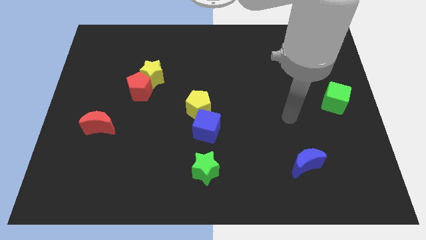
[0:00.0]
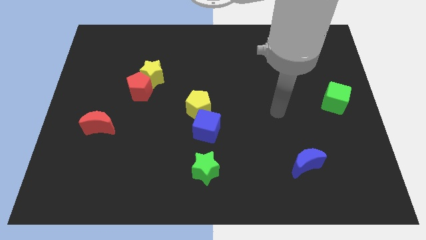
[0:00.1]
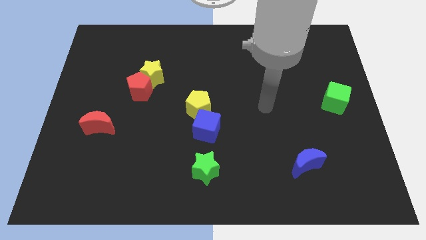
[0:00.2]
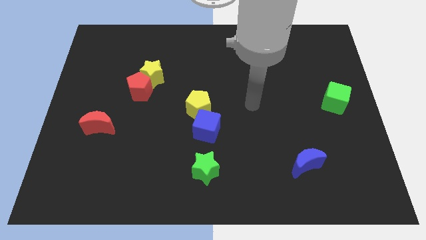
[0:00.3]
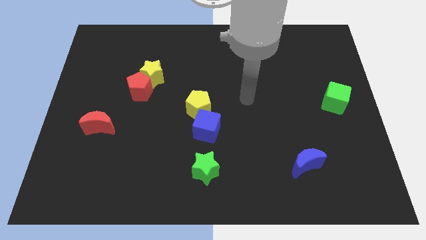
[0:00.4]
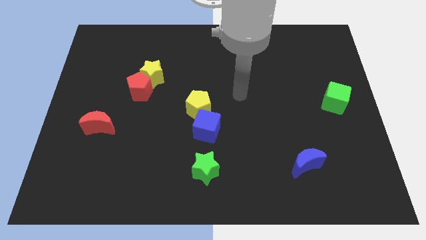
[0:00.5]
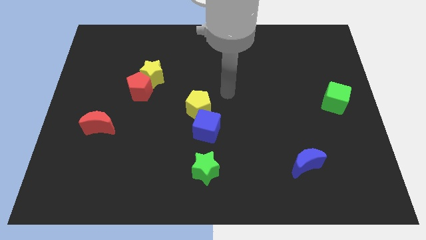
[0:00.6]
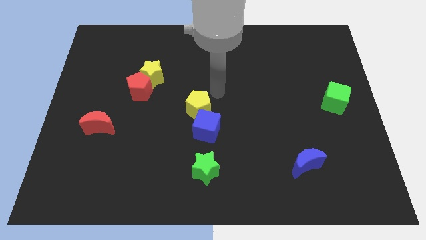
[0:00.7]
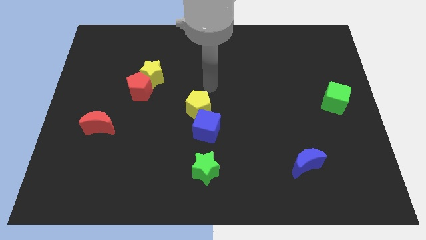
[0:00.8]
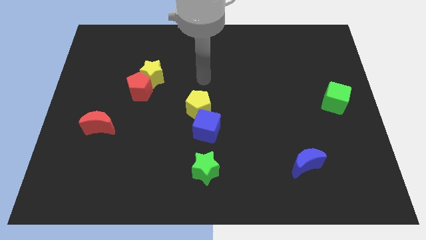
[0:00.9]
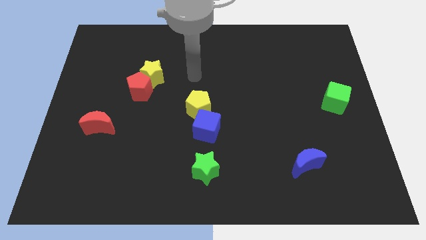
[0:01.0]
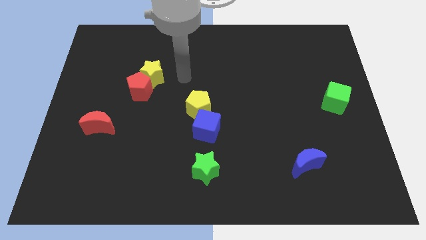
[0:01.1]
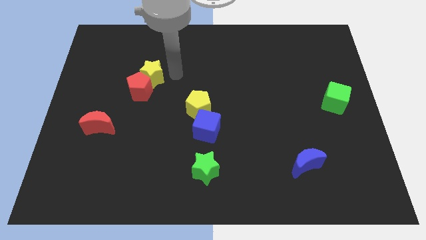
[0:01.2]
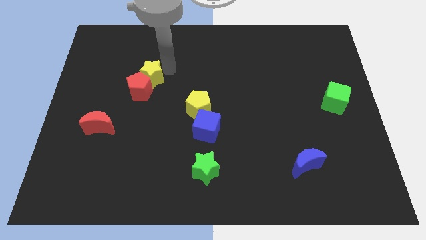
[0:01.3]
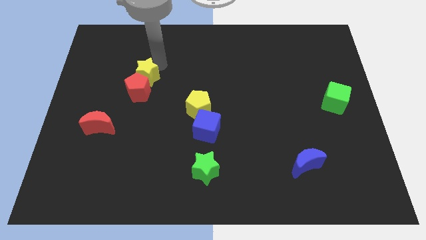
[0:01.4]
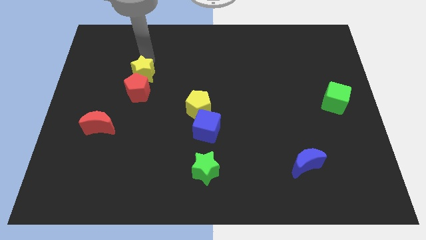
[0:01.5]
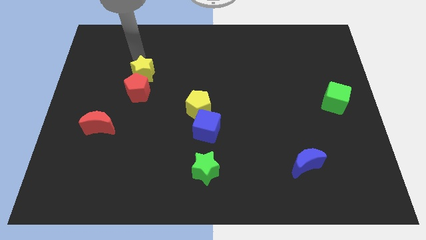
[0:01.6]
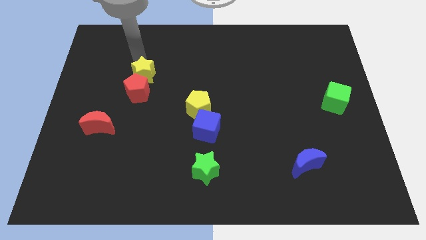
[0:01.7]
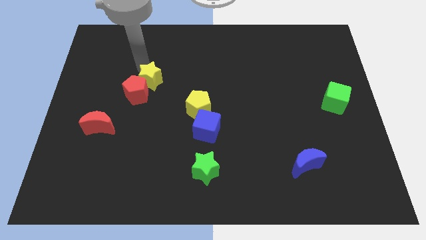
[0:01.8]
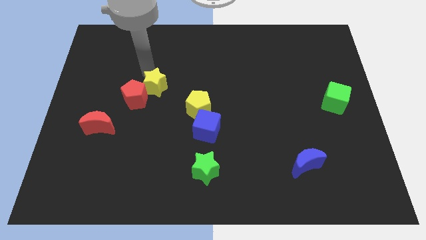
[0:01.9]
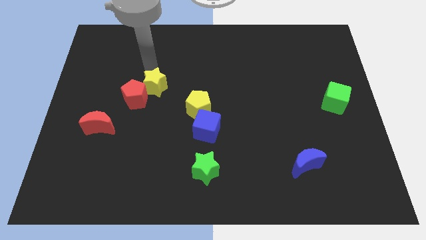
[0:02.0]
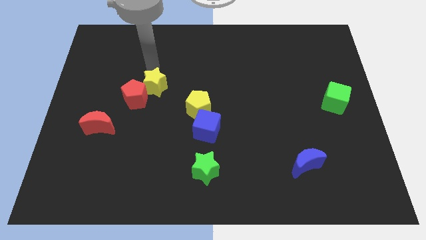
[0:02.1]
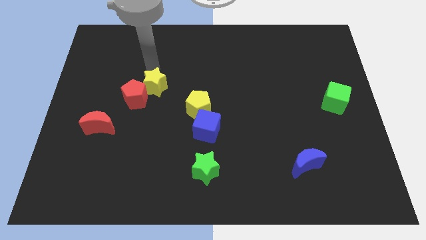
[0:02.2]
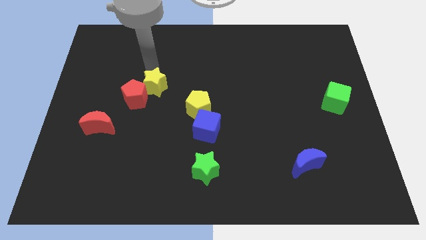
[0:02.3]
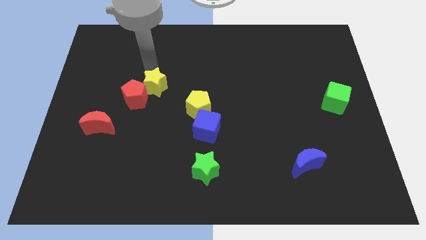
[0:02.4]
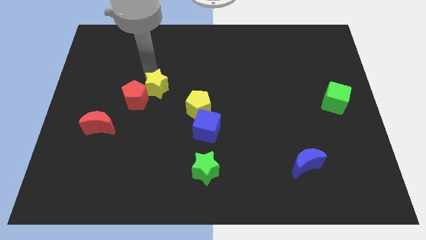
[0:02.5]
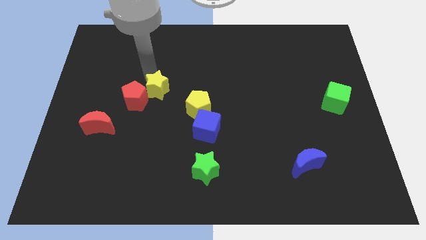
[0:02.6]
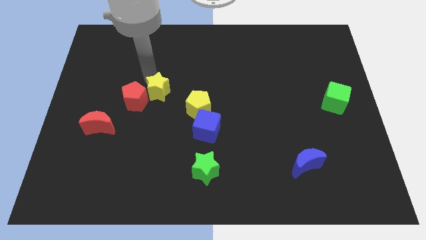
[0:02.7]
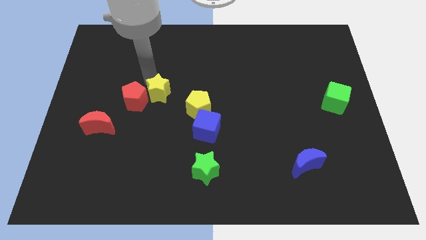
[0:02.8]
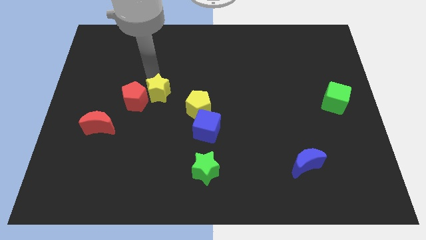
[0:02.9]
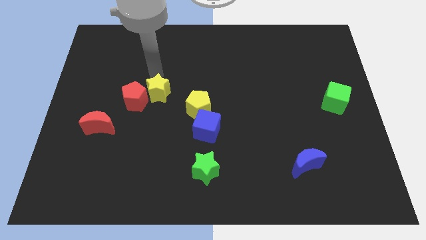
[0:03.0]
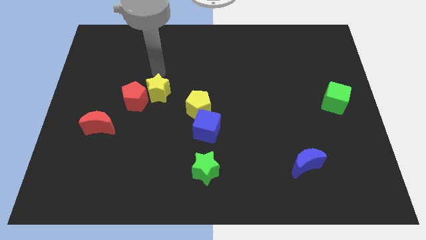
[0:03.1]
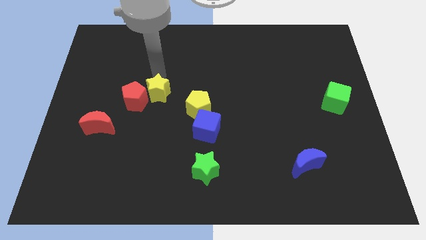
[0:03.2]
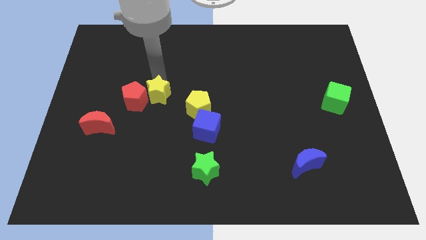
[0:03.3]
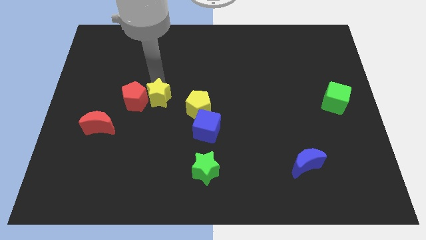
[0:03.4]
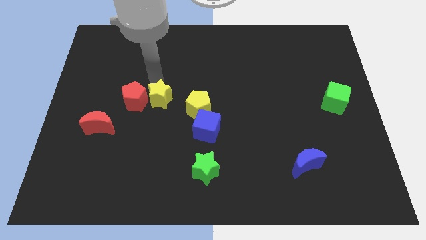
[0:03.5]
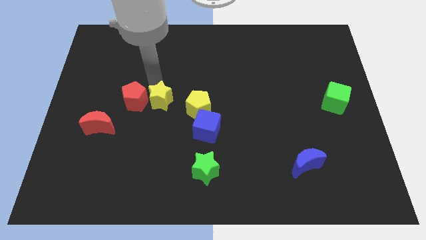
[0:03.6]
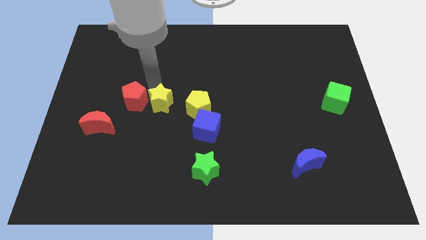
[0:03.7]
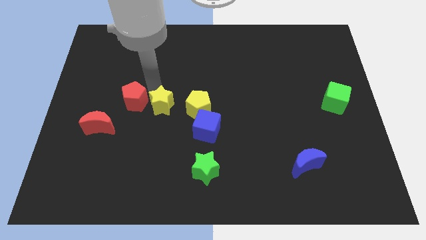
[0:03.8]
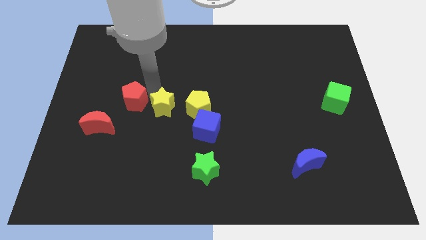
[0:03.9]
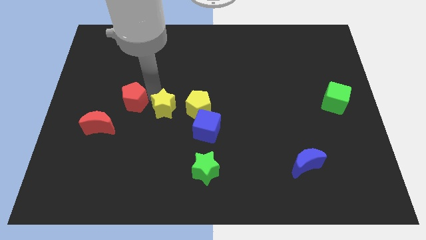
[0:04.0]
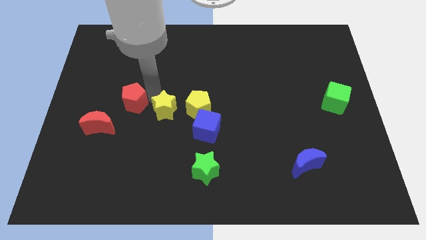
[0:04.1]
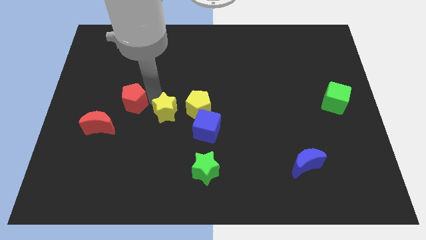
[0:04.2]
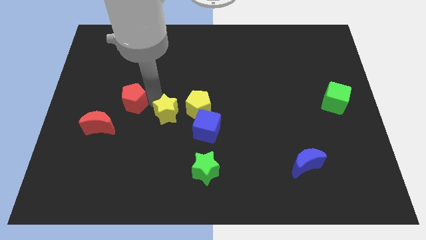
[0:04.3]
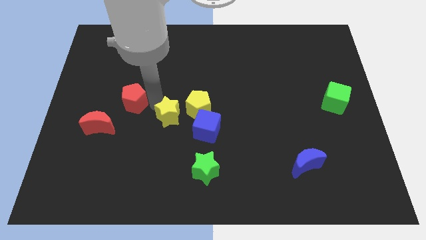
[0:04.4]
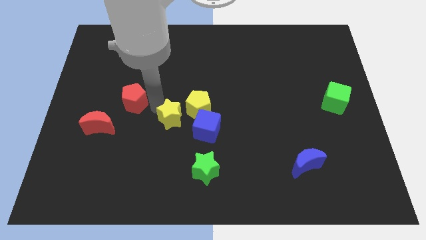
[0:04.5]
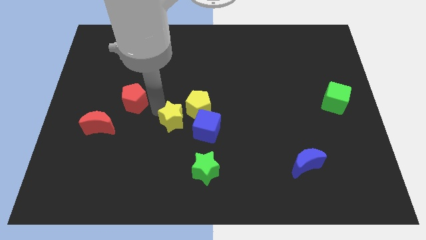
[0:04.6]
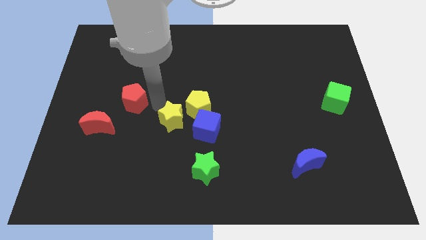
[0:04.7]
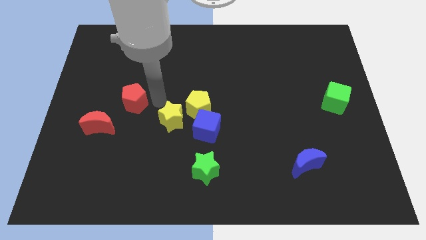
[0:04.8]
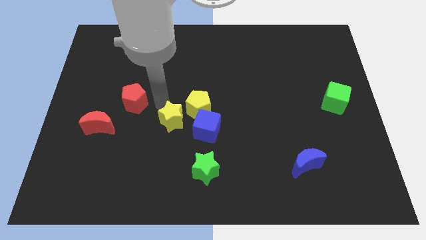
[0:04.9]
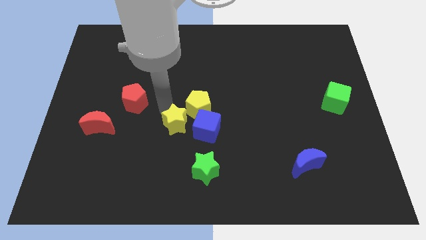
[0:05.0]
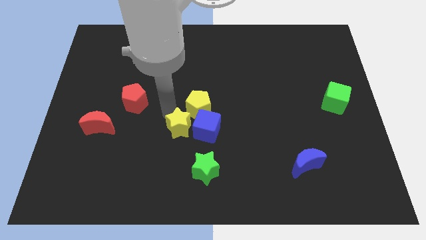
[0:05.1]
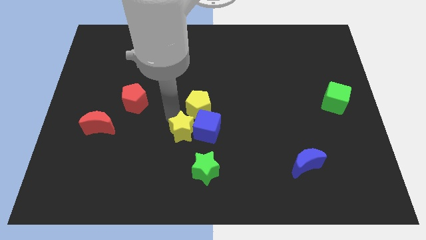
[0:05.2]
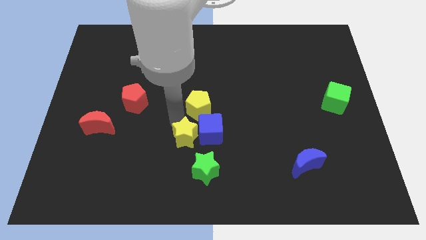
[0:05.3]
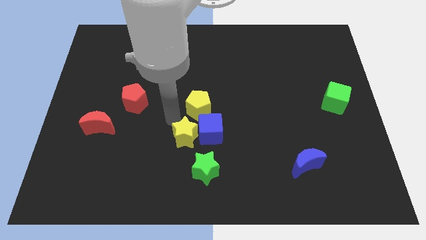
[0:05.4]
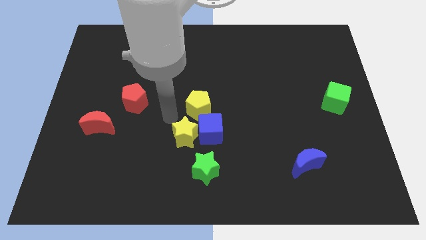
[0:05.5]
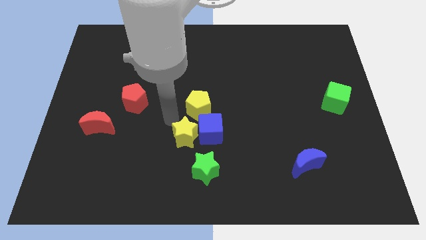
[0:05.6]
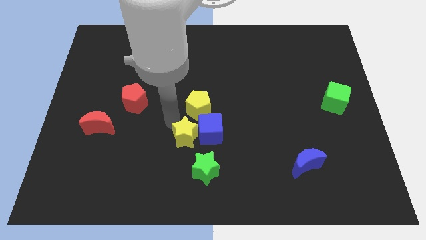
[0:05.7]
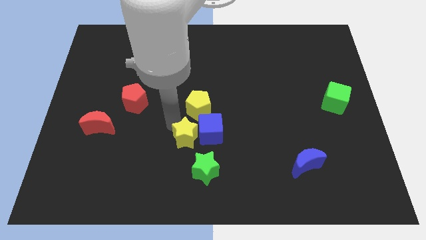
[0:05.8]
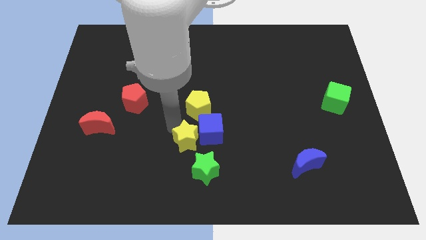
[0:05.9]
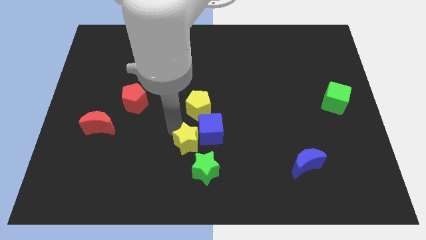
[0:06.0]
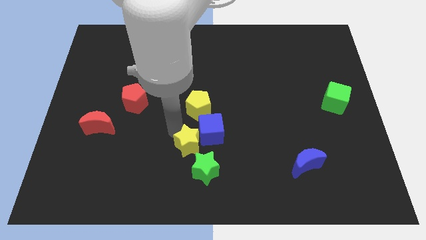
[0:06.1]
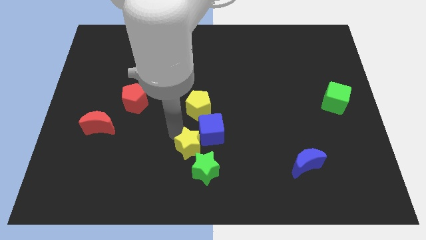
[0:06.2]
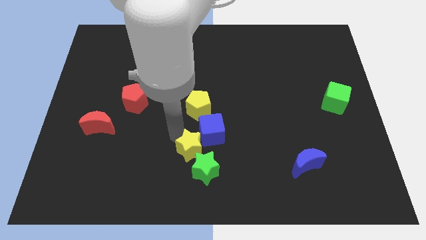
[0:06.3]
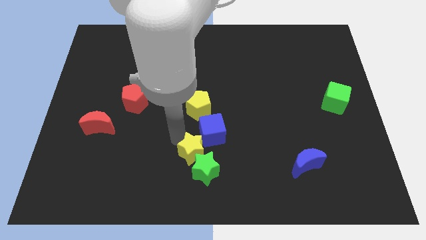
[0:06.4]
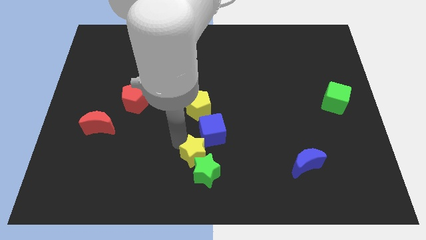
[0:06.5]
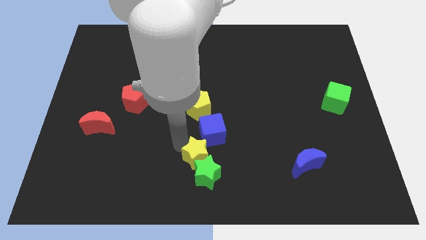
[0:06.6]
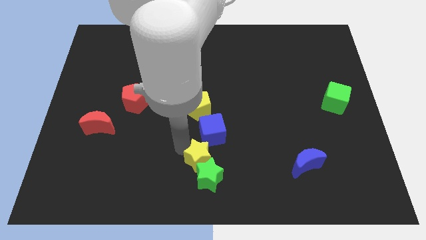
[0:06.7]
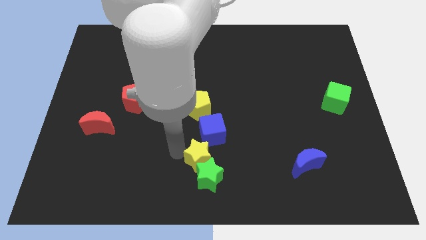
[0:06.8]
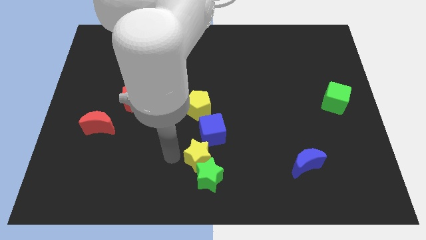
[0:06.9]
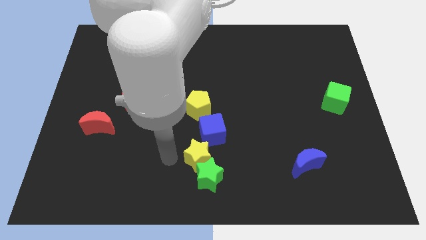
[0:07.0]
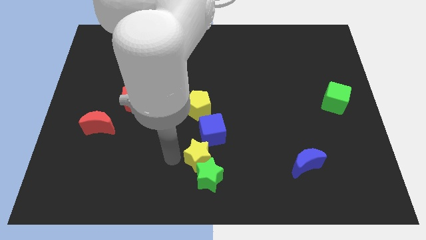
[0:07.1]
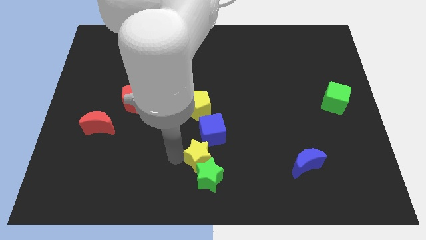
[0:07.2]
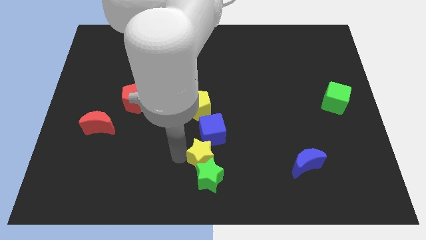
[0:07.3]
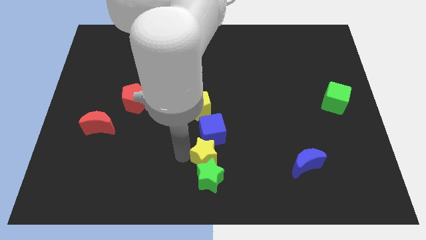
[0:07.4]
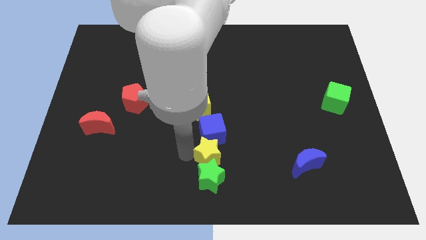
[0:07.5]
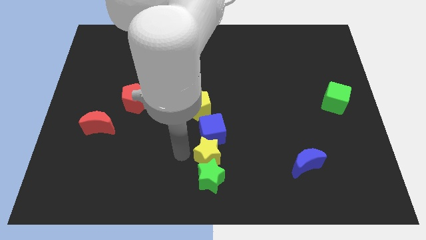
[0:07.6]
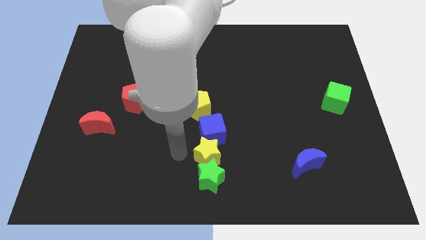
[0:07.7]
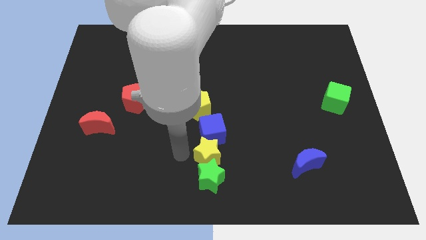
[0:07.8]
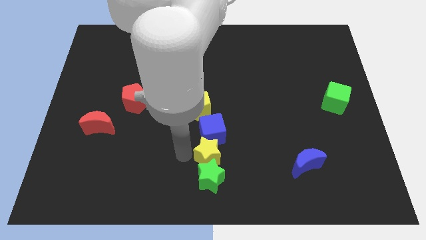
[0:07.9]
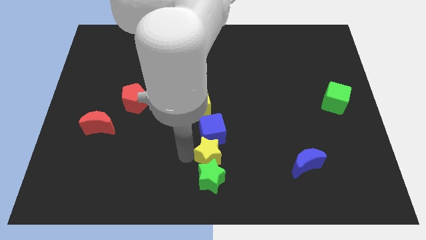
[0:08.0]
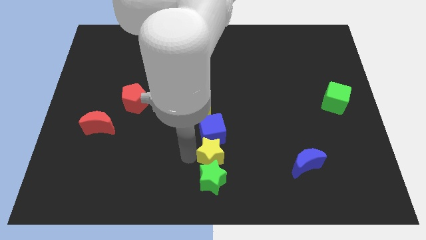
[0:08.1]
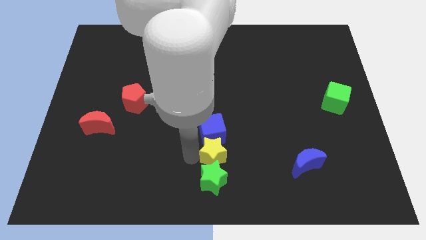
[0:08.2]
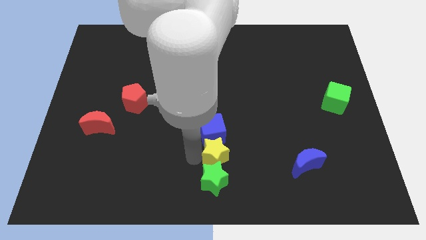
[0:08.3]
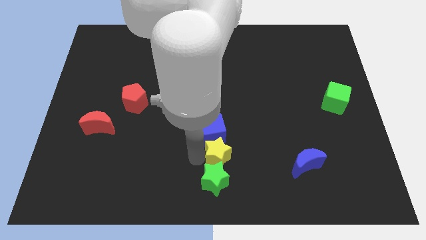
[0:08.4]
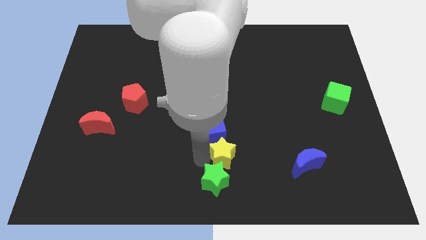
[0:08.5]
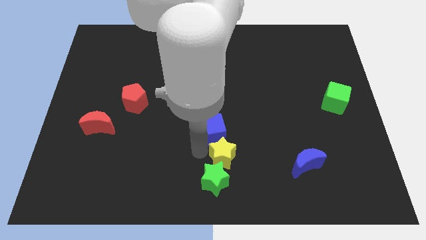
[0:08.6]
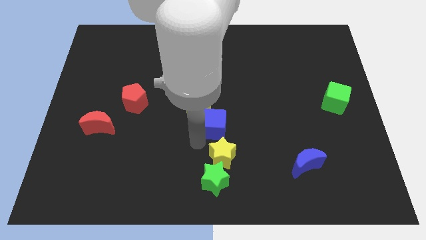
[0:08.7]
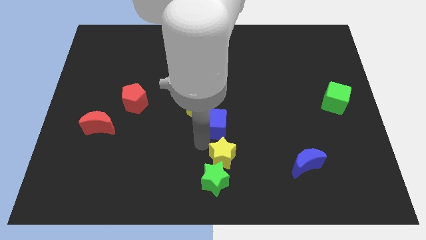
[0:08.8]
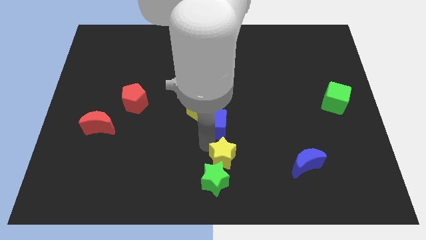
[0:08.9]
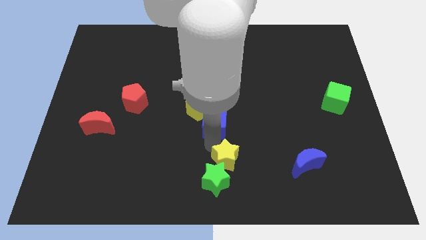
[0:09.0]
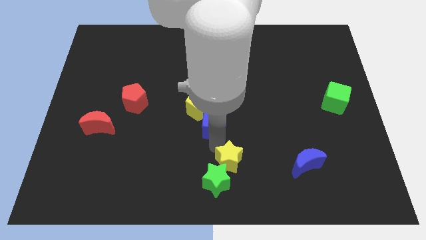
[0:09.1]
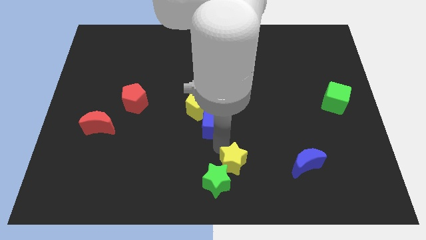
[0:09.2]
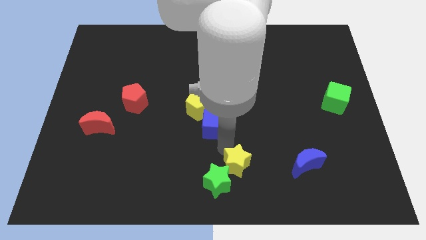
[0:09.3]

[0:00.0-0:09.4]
push the yellow star right of the green star
